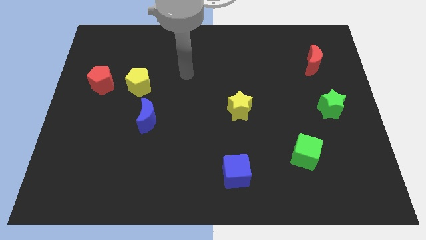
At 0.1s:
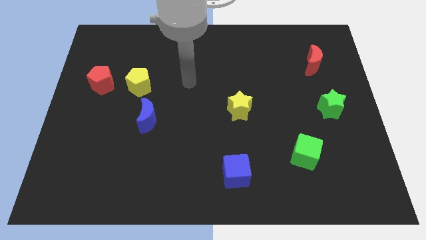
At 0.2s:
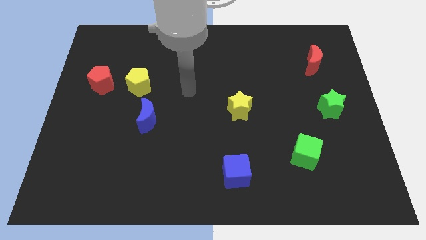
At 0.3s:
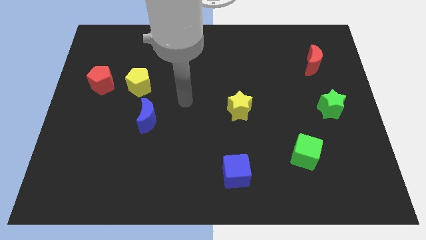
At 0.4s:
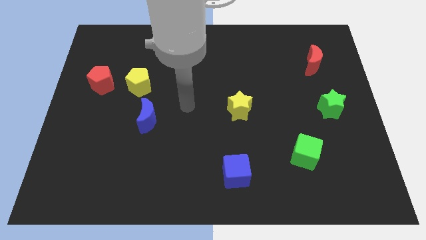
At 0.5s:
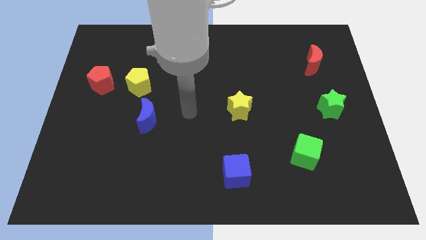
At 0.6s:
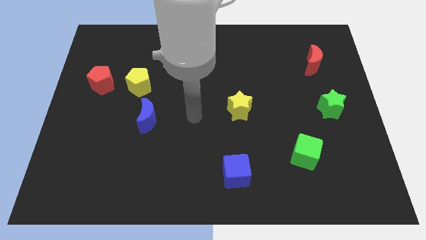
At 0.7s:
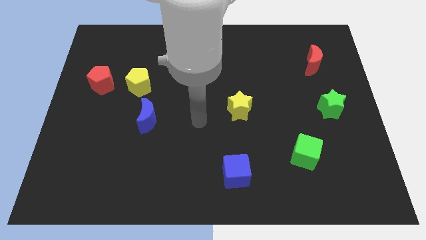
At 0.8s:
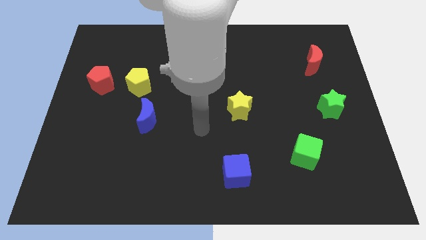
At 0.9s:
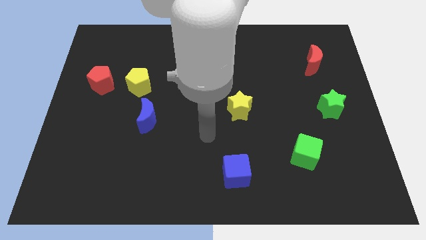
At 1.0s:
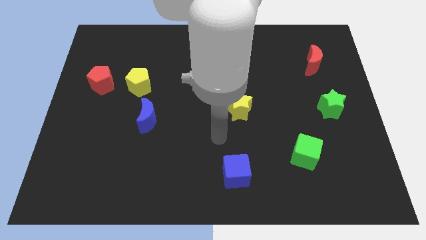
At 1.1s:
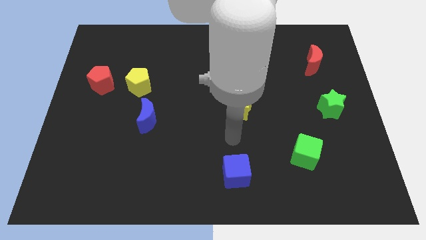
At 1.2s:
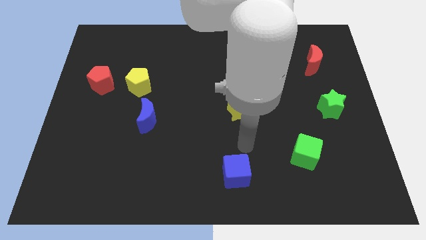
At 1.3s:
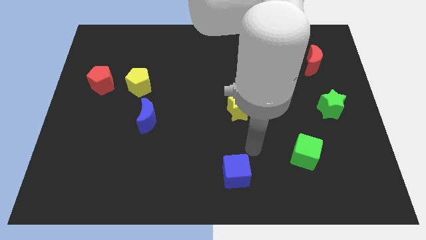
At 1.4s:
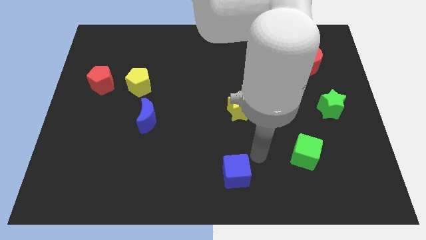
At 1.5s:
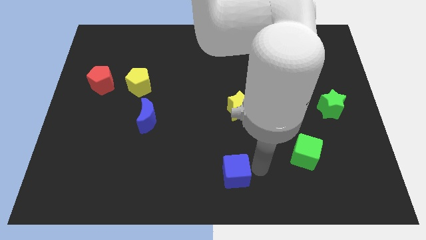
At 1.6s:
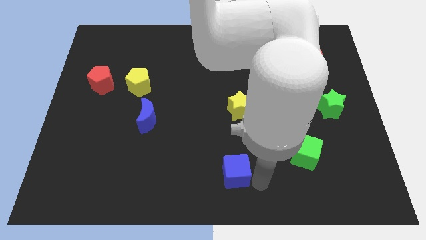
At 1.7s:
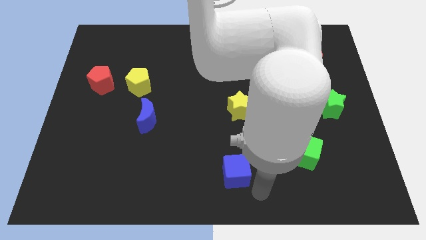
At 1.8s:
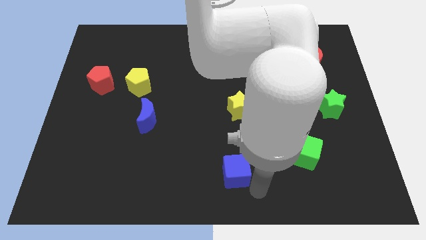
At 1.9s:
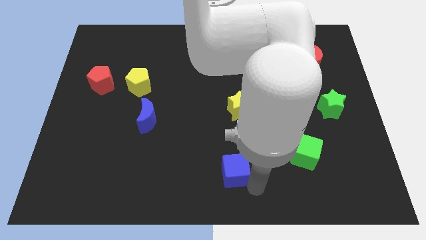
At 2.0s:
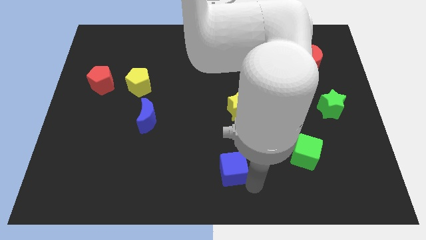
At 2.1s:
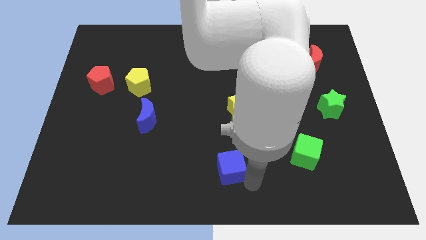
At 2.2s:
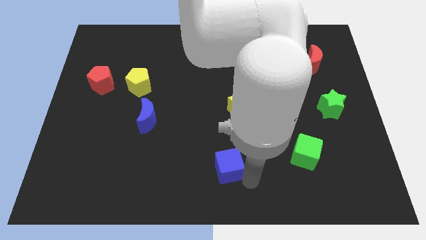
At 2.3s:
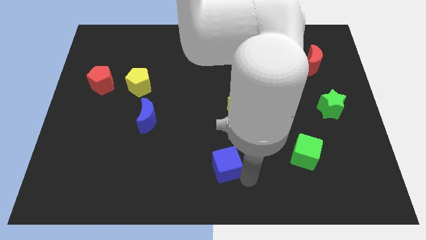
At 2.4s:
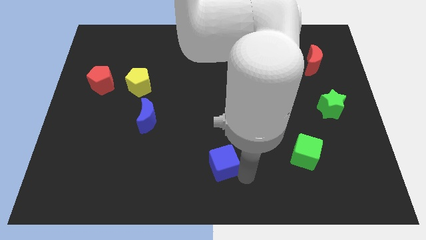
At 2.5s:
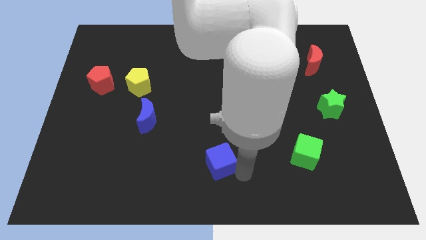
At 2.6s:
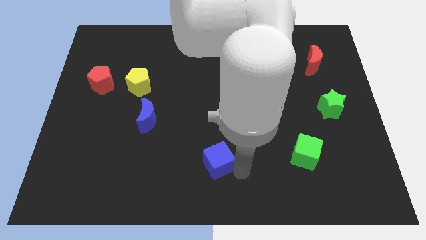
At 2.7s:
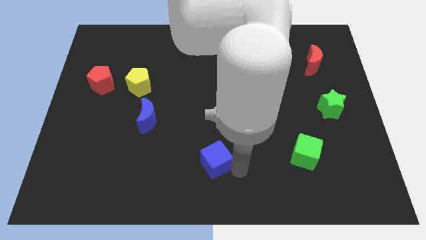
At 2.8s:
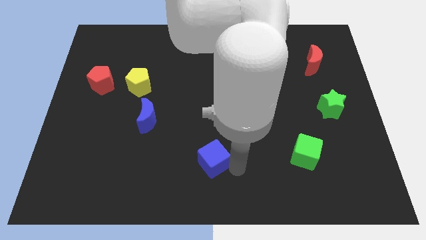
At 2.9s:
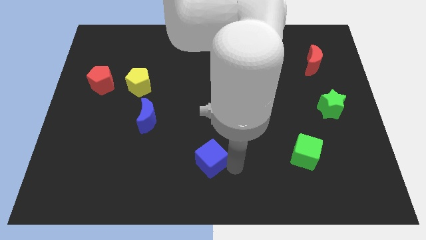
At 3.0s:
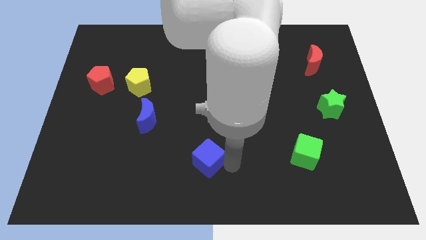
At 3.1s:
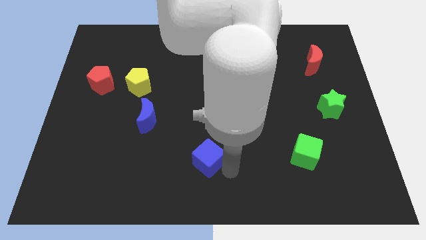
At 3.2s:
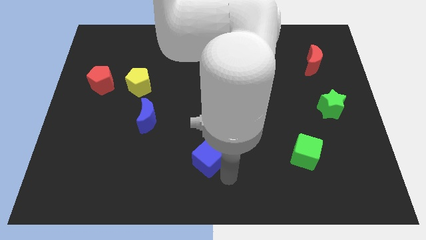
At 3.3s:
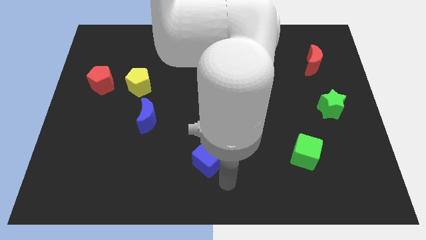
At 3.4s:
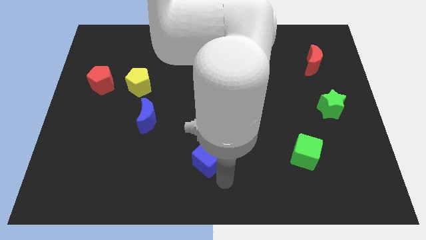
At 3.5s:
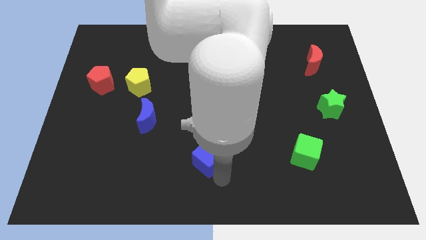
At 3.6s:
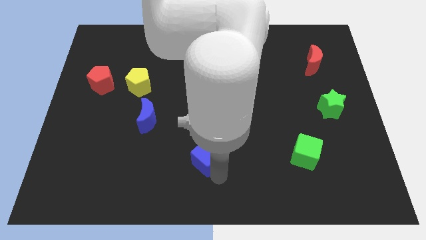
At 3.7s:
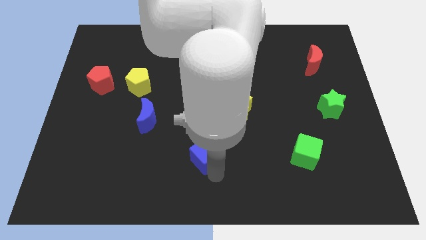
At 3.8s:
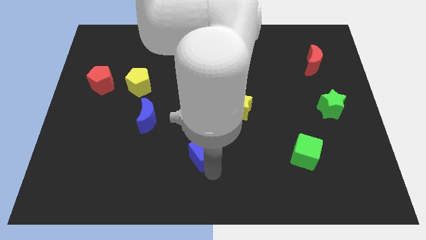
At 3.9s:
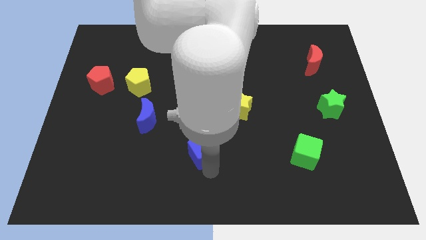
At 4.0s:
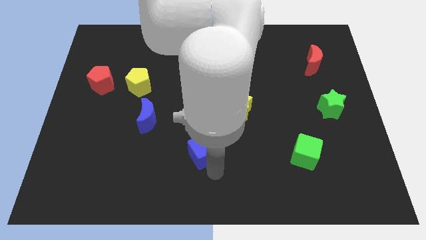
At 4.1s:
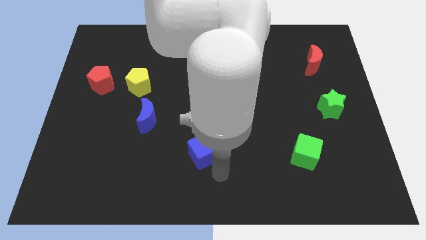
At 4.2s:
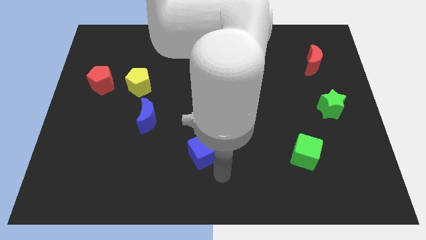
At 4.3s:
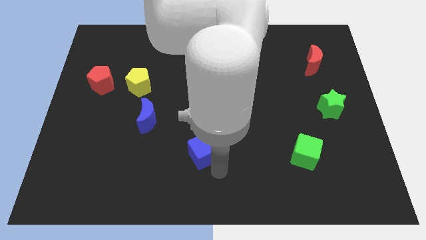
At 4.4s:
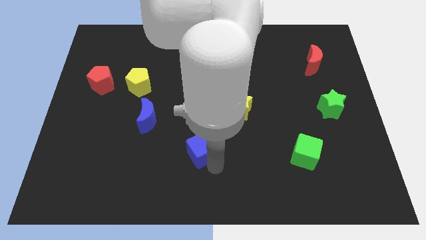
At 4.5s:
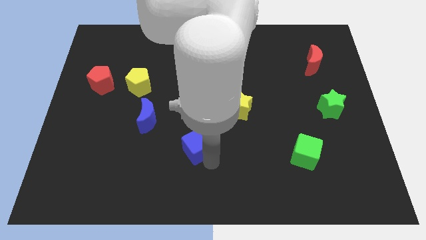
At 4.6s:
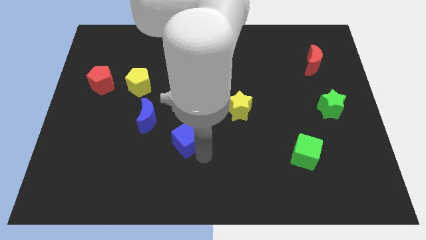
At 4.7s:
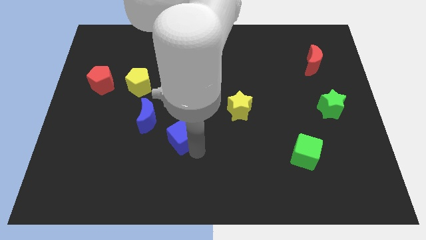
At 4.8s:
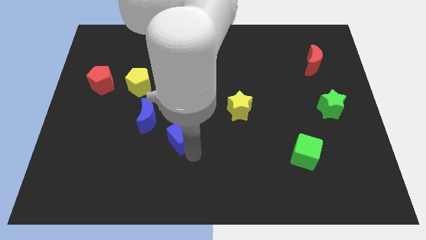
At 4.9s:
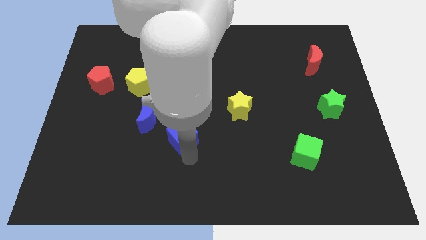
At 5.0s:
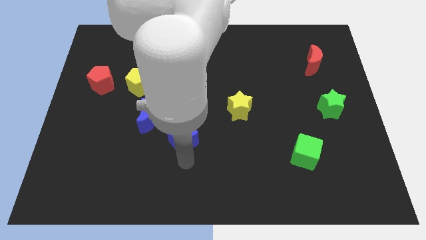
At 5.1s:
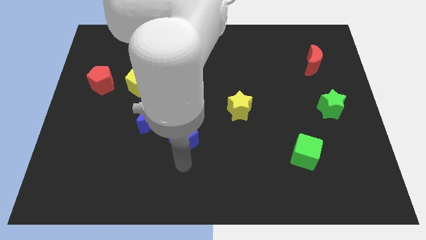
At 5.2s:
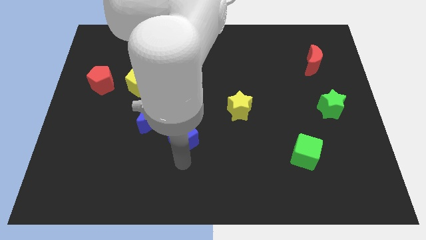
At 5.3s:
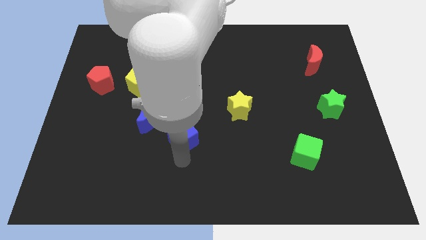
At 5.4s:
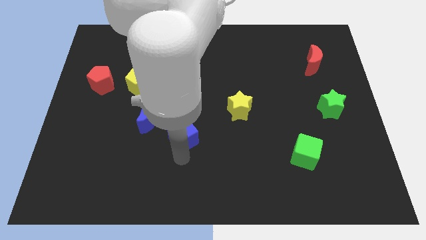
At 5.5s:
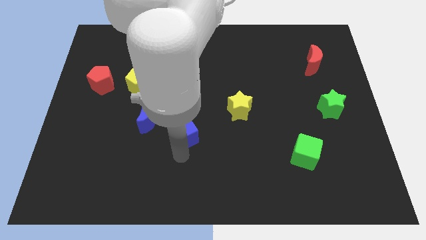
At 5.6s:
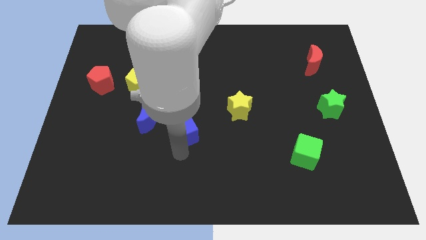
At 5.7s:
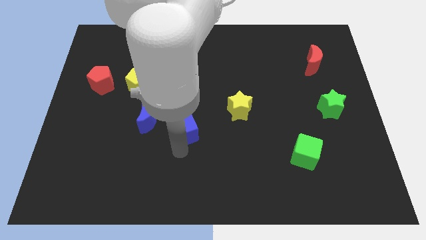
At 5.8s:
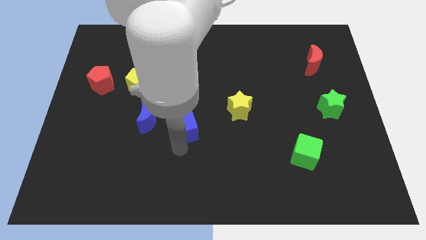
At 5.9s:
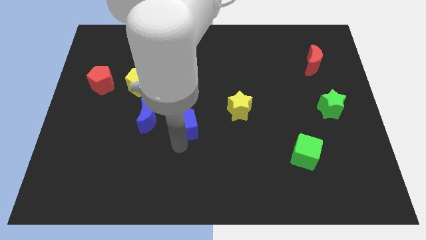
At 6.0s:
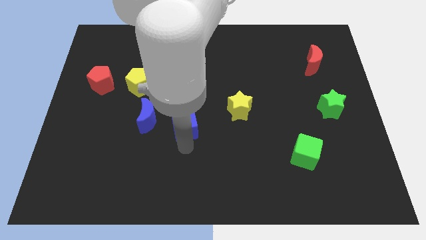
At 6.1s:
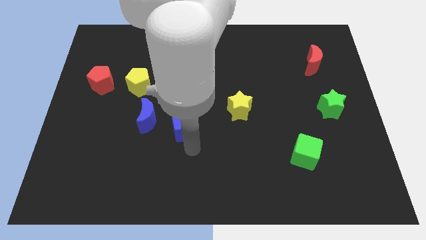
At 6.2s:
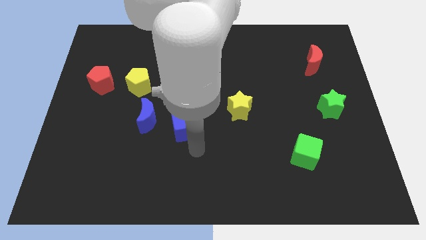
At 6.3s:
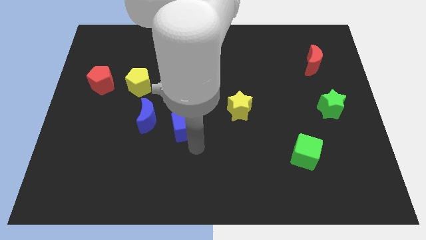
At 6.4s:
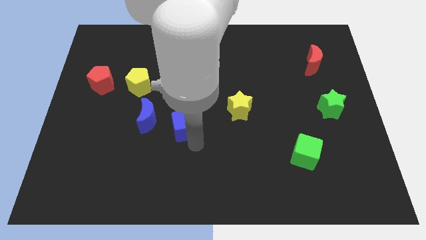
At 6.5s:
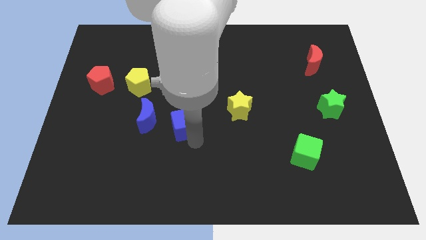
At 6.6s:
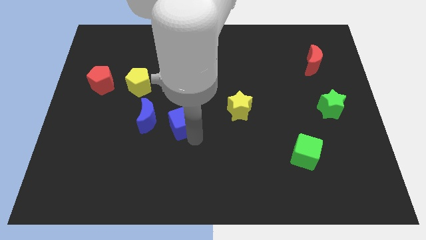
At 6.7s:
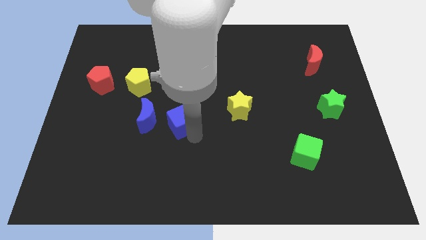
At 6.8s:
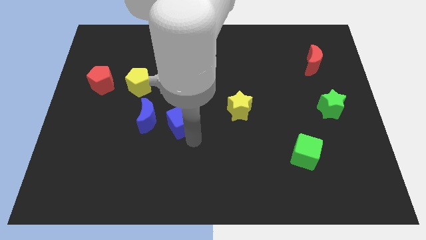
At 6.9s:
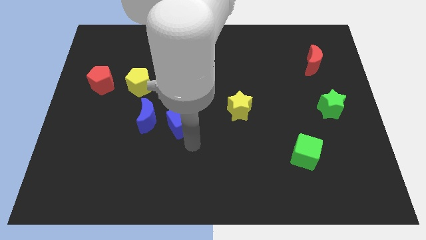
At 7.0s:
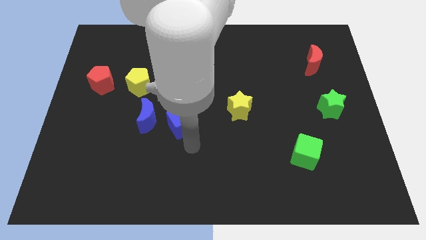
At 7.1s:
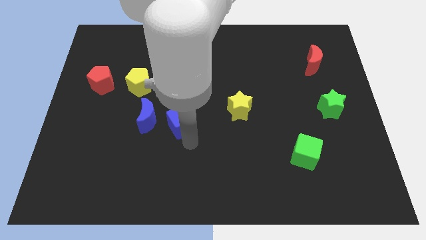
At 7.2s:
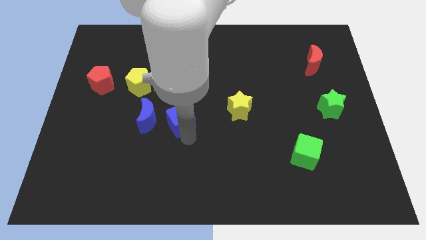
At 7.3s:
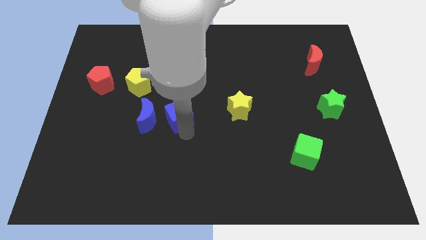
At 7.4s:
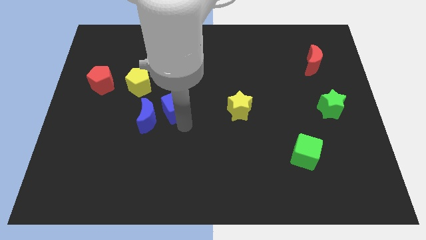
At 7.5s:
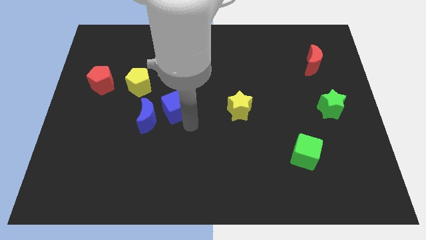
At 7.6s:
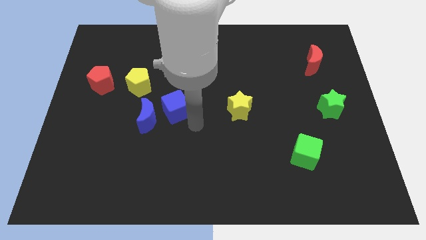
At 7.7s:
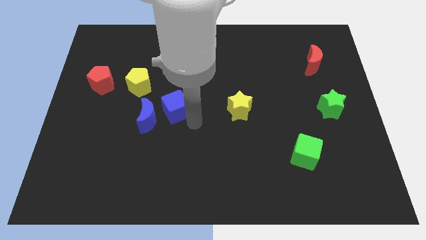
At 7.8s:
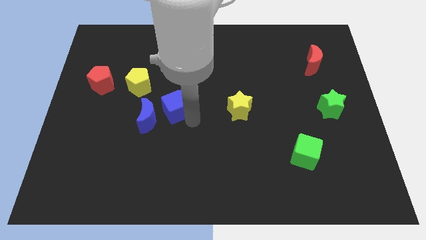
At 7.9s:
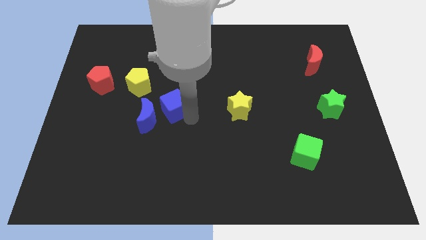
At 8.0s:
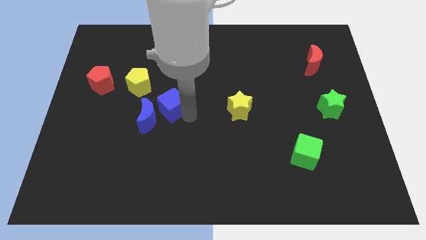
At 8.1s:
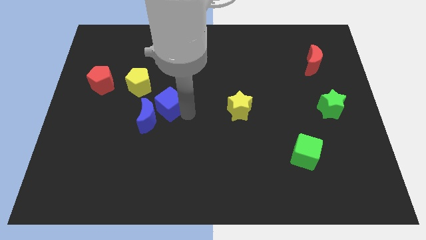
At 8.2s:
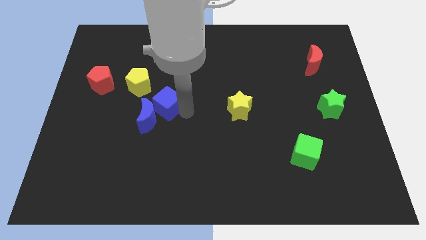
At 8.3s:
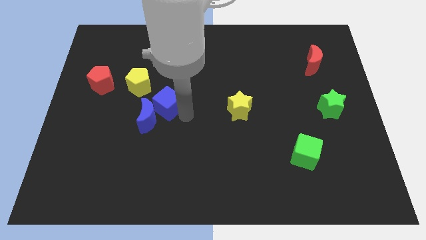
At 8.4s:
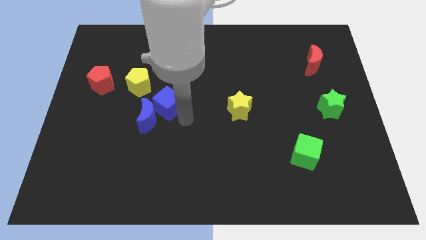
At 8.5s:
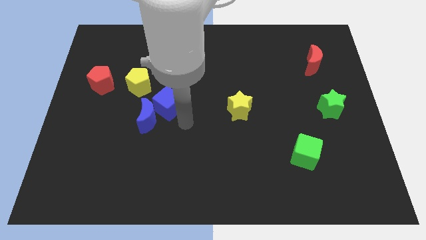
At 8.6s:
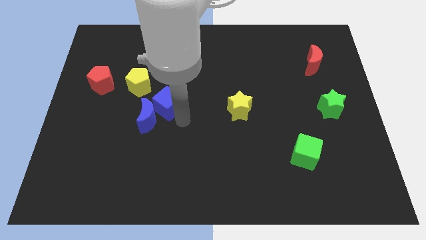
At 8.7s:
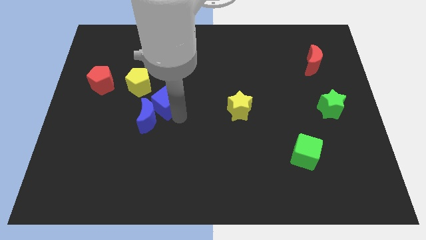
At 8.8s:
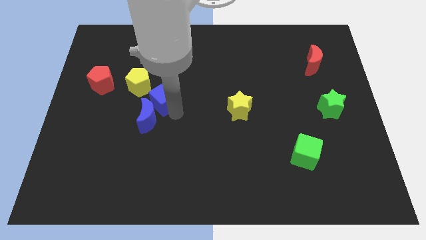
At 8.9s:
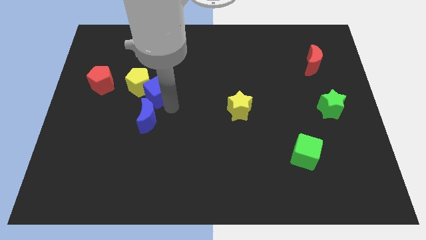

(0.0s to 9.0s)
put the blue cube close to the yellow pentagon
